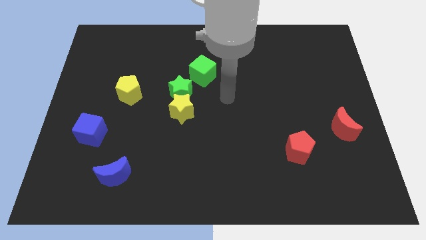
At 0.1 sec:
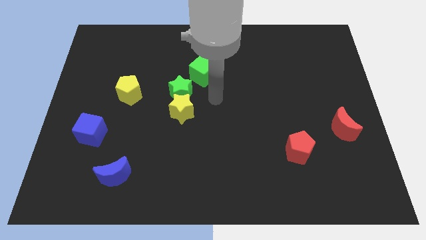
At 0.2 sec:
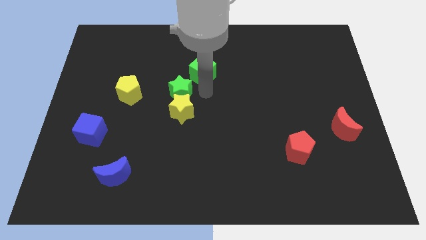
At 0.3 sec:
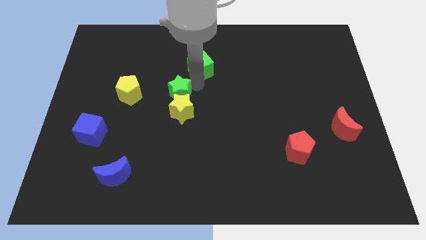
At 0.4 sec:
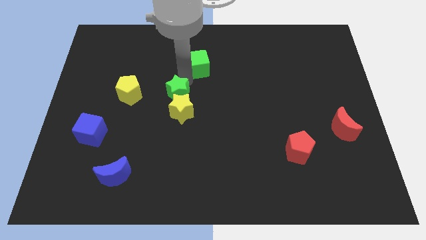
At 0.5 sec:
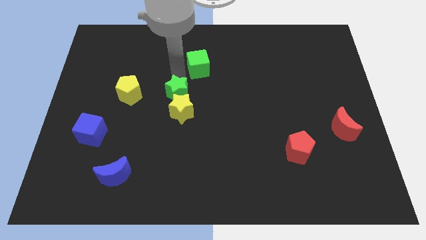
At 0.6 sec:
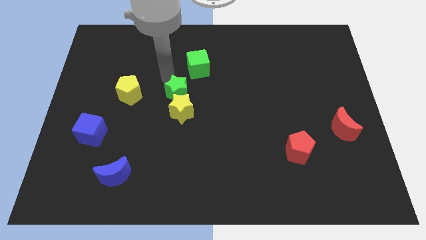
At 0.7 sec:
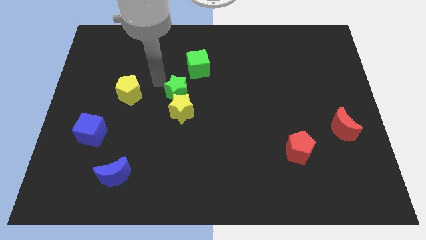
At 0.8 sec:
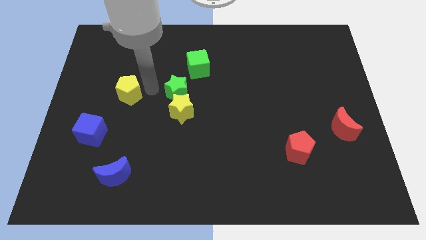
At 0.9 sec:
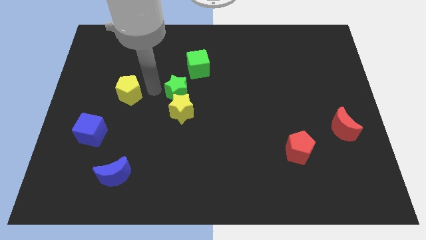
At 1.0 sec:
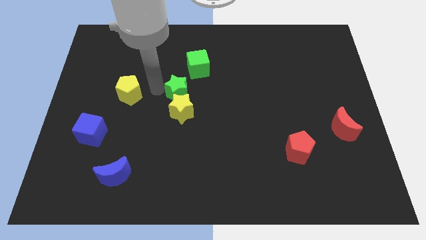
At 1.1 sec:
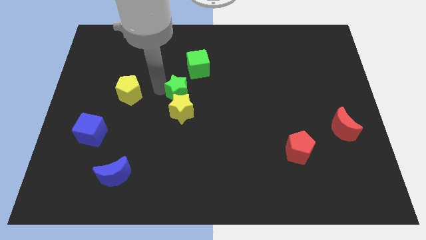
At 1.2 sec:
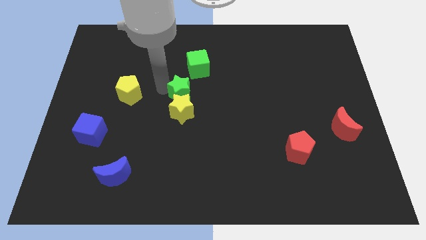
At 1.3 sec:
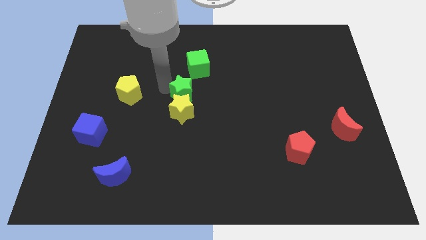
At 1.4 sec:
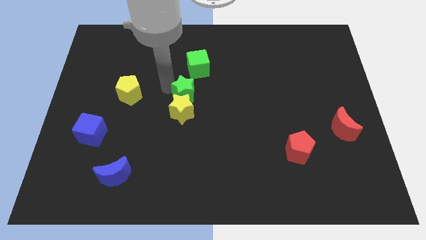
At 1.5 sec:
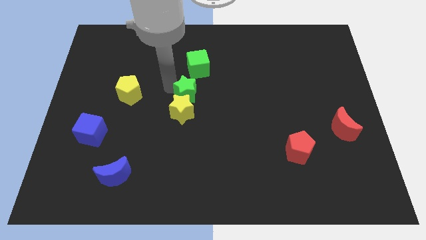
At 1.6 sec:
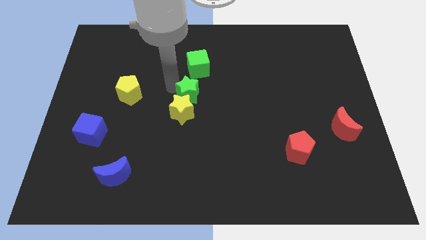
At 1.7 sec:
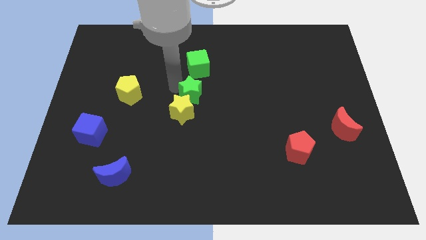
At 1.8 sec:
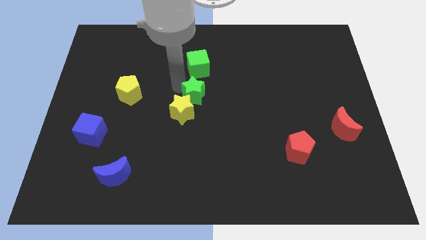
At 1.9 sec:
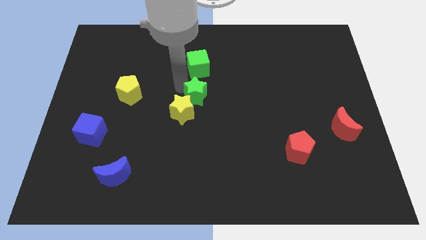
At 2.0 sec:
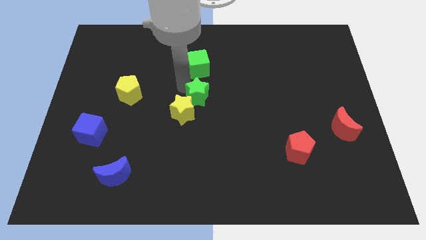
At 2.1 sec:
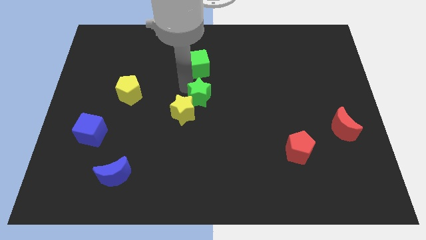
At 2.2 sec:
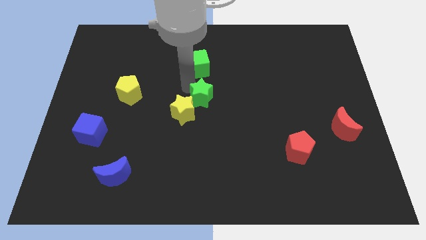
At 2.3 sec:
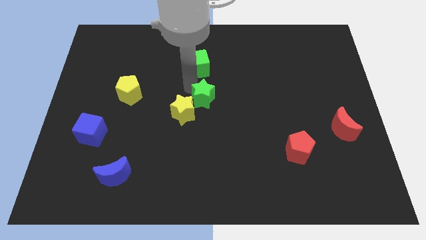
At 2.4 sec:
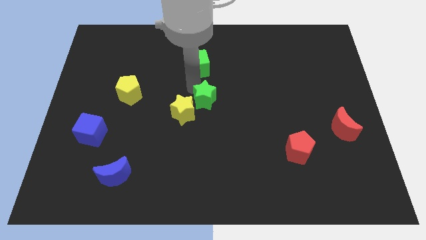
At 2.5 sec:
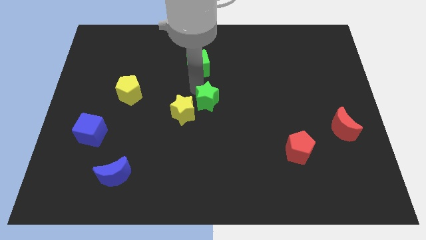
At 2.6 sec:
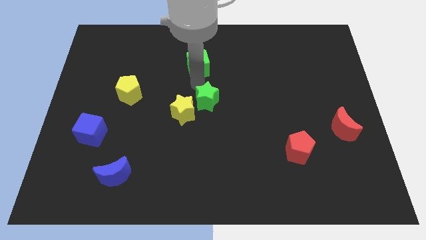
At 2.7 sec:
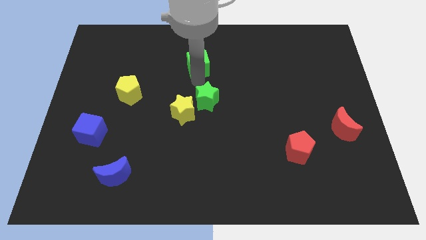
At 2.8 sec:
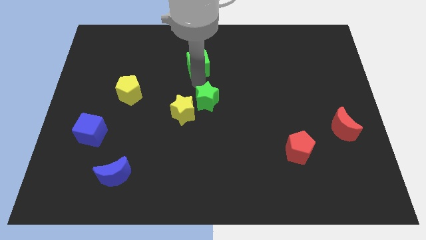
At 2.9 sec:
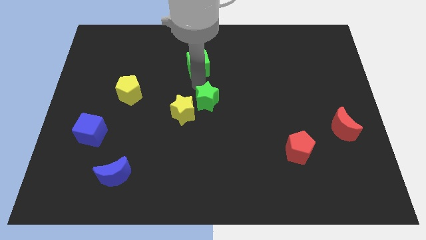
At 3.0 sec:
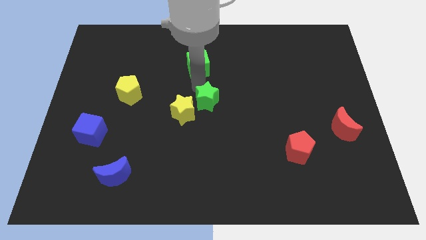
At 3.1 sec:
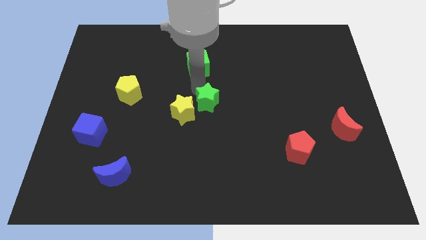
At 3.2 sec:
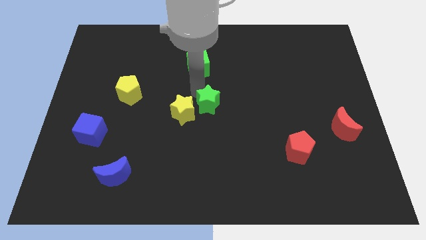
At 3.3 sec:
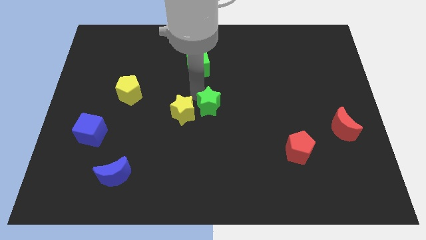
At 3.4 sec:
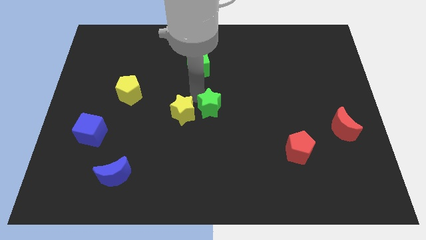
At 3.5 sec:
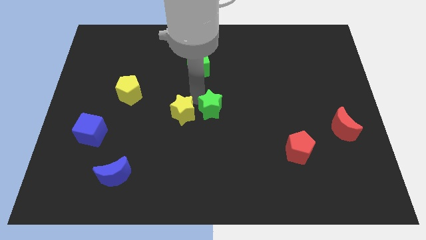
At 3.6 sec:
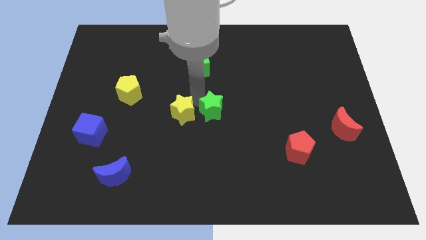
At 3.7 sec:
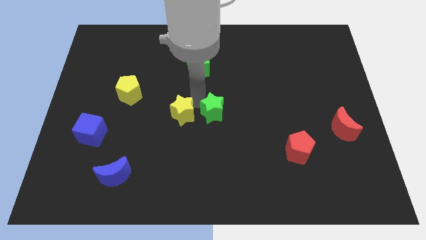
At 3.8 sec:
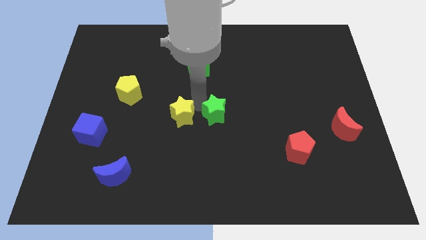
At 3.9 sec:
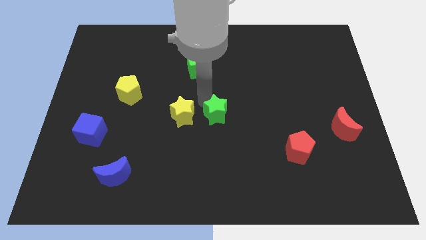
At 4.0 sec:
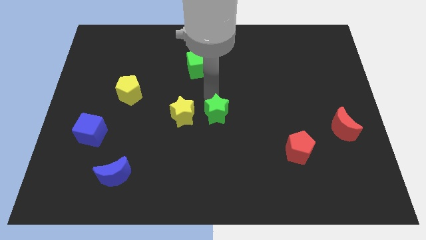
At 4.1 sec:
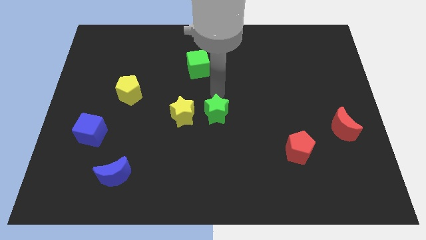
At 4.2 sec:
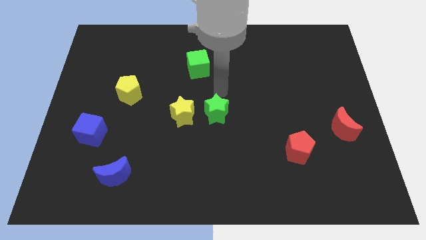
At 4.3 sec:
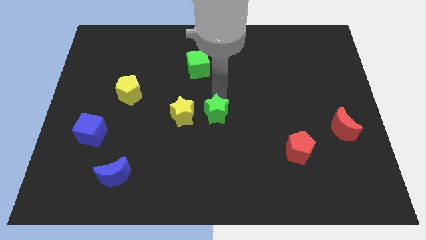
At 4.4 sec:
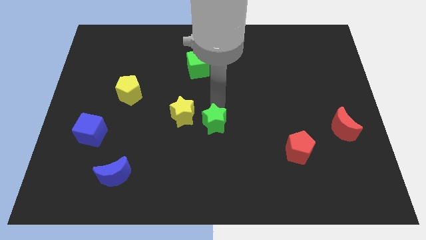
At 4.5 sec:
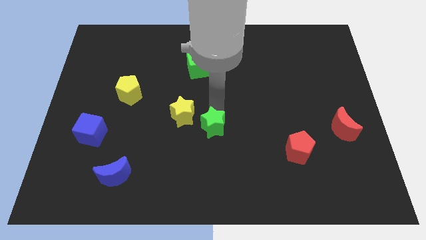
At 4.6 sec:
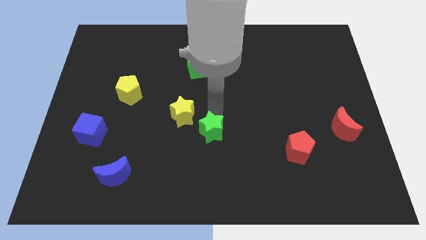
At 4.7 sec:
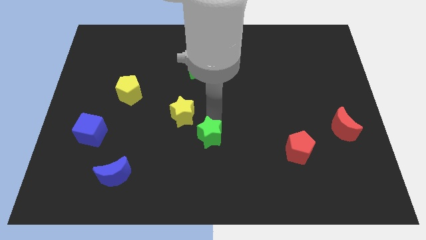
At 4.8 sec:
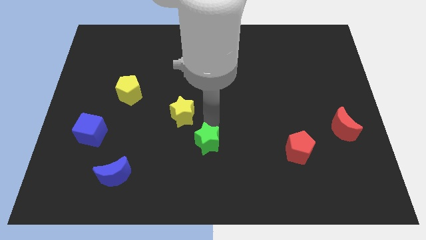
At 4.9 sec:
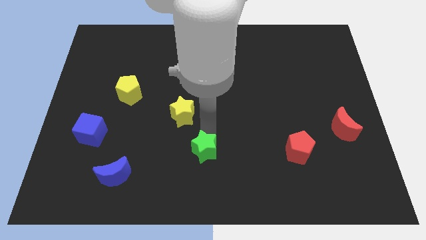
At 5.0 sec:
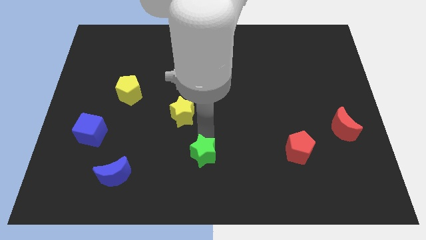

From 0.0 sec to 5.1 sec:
slide the green star to the bottom side

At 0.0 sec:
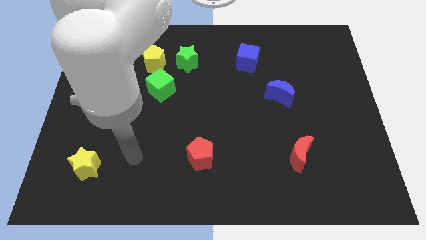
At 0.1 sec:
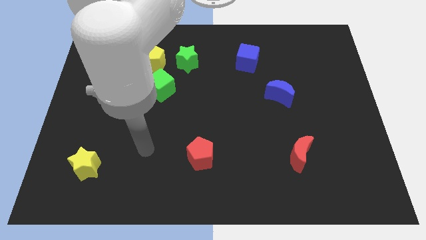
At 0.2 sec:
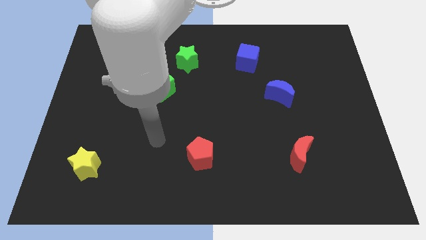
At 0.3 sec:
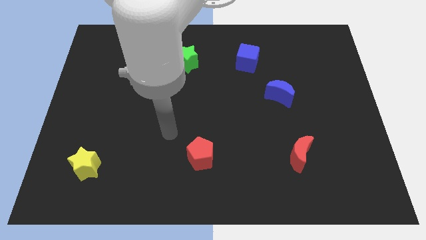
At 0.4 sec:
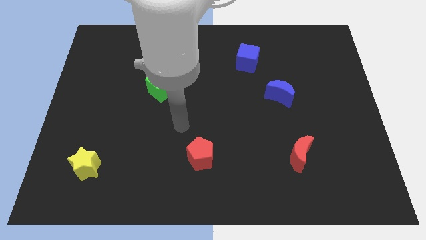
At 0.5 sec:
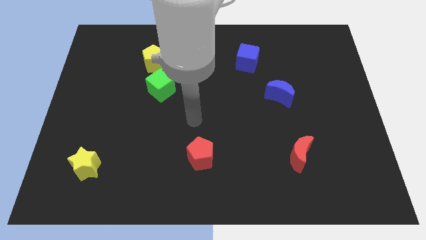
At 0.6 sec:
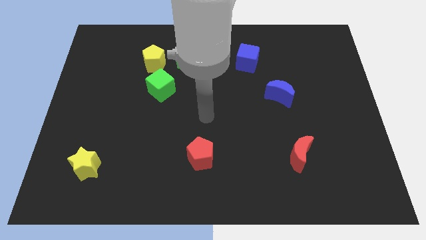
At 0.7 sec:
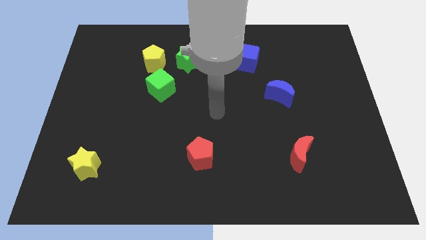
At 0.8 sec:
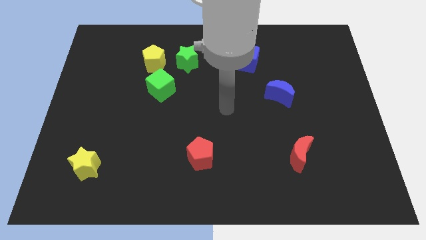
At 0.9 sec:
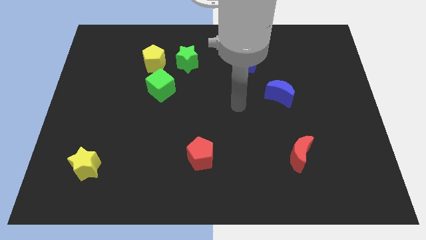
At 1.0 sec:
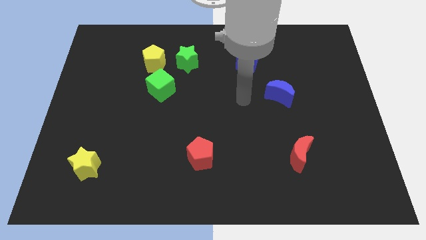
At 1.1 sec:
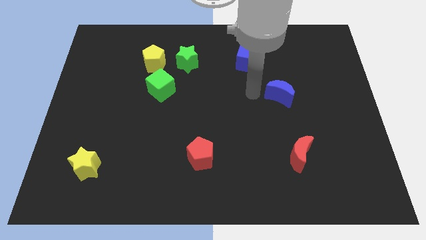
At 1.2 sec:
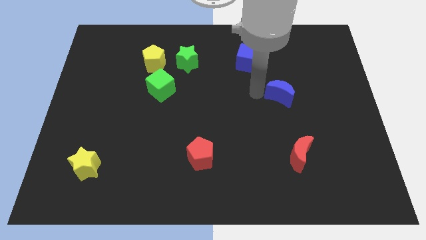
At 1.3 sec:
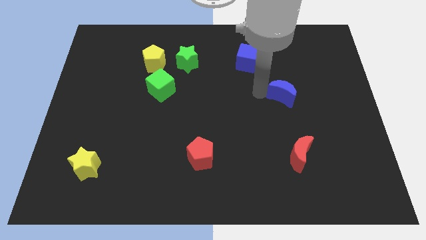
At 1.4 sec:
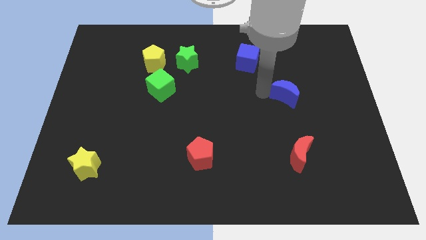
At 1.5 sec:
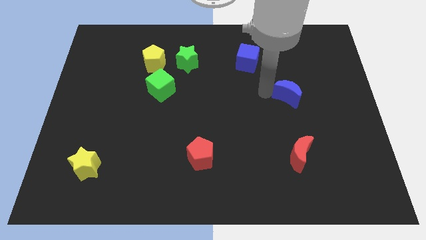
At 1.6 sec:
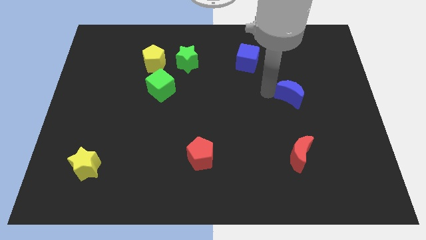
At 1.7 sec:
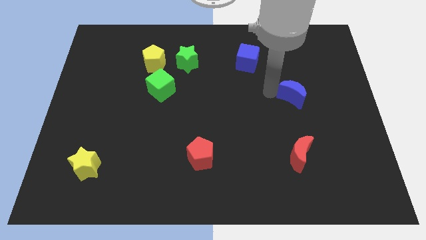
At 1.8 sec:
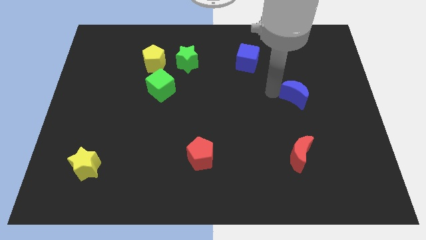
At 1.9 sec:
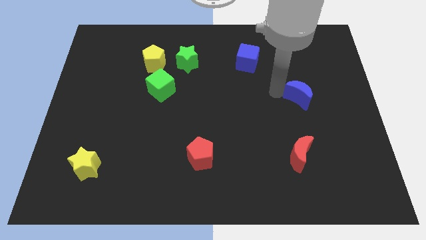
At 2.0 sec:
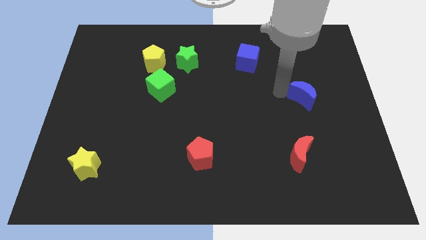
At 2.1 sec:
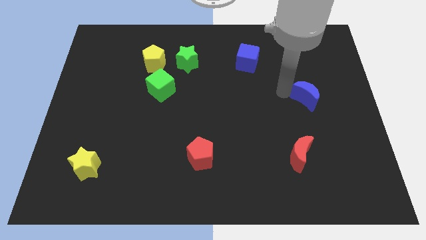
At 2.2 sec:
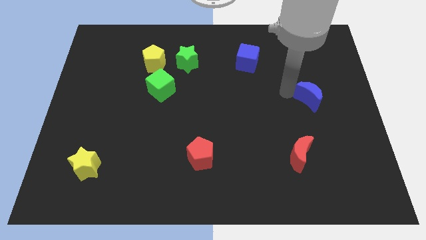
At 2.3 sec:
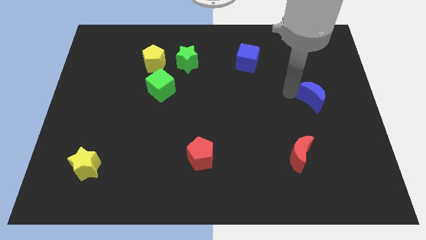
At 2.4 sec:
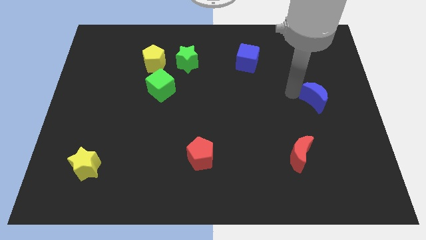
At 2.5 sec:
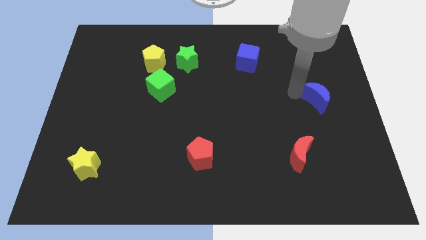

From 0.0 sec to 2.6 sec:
slide the blue moon to the right side of the board
